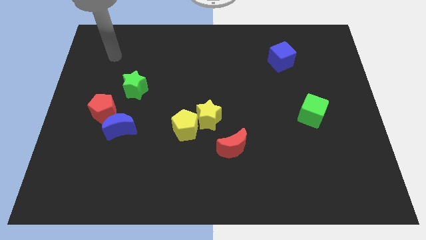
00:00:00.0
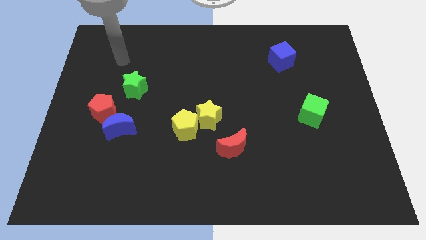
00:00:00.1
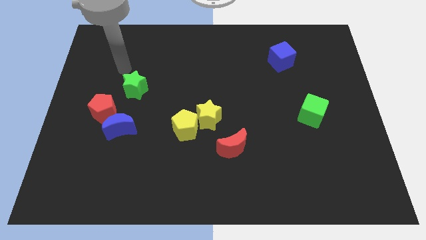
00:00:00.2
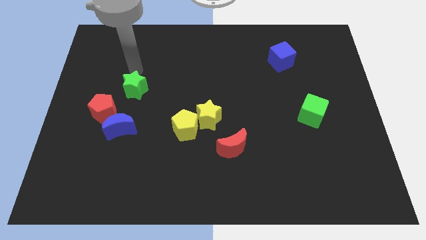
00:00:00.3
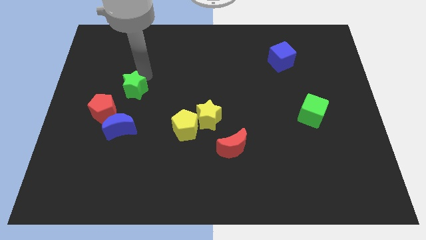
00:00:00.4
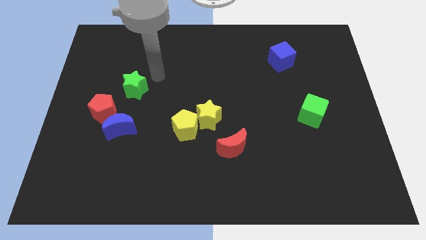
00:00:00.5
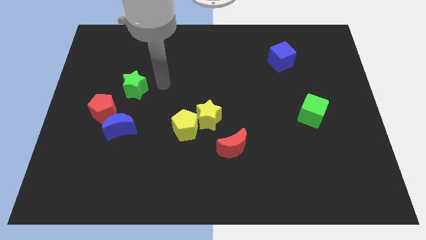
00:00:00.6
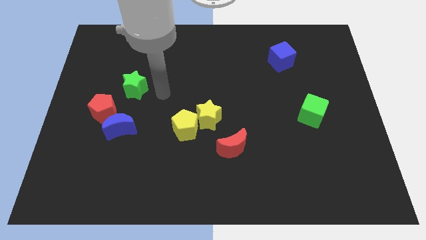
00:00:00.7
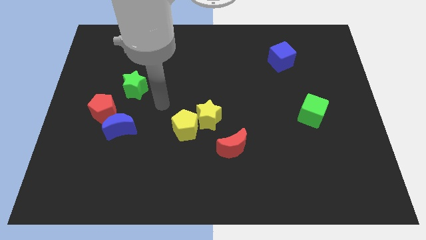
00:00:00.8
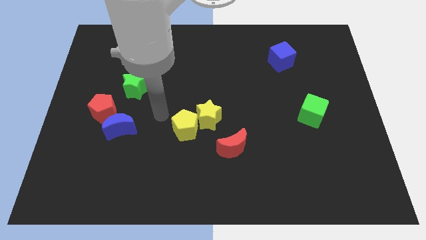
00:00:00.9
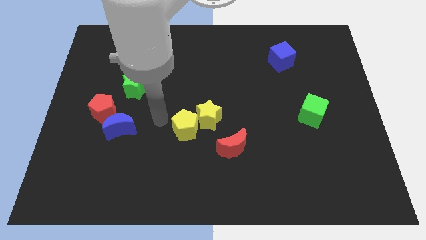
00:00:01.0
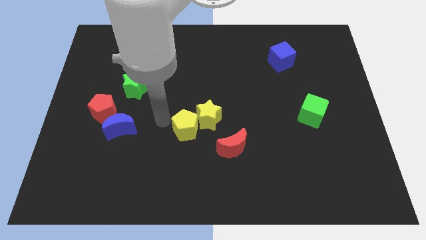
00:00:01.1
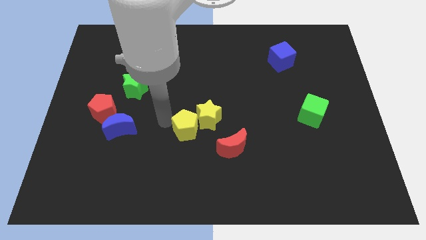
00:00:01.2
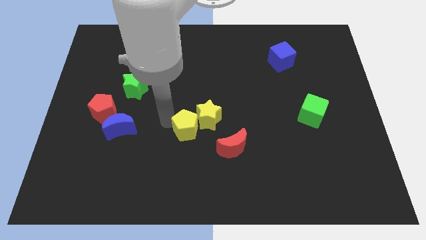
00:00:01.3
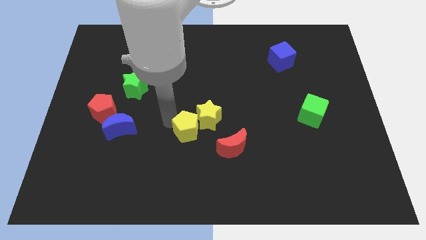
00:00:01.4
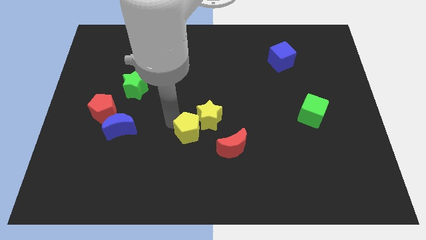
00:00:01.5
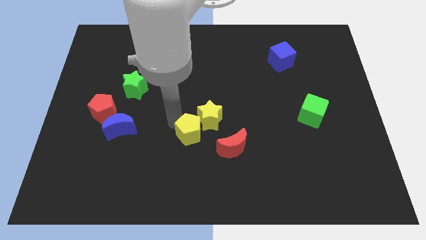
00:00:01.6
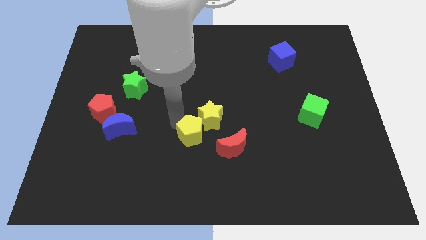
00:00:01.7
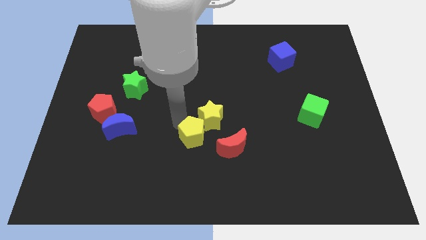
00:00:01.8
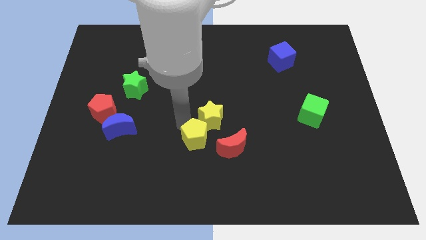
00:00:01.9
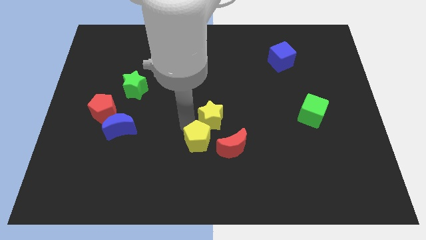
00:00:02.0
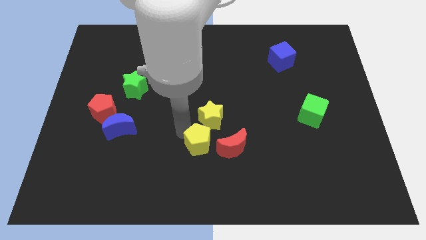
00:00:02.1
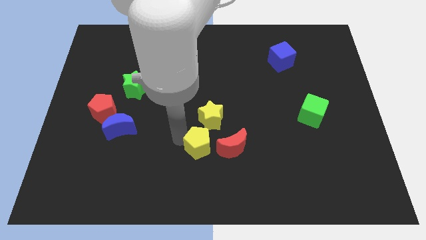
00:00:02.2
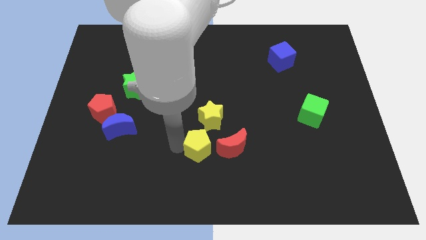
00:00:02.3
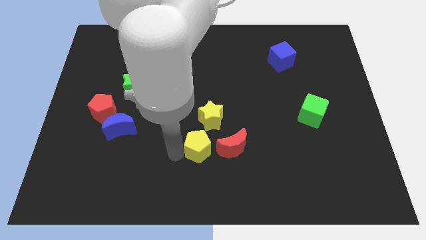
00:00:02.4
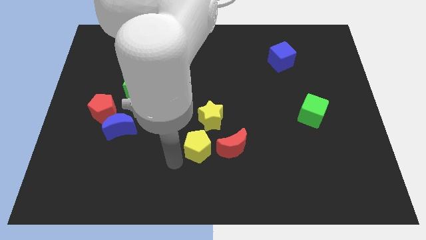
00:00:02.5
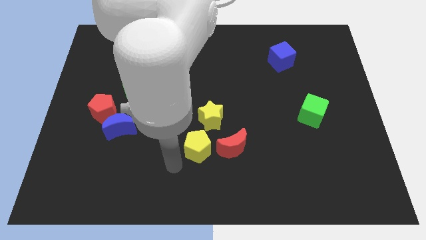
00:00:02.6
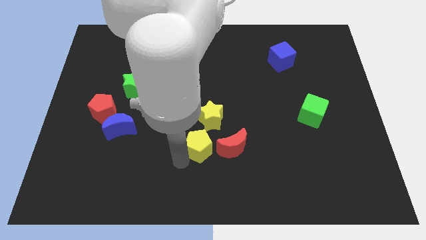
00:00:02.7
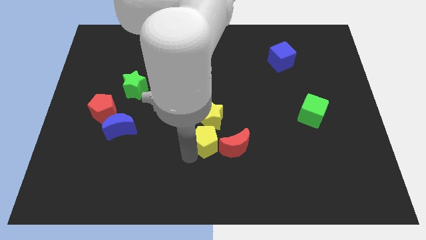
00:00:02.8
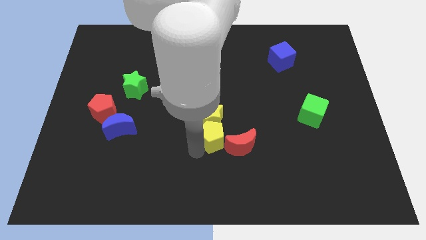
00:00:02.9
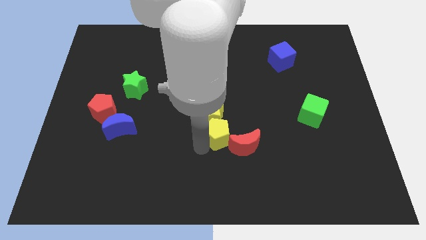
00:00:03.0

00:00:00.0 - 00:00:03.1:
push the yellow pentagon right a bit

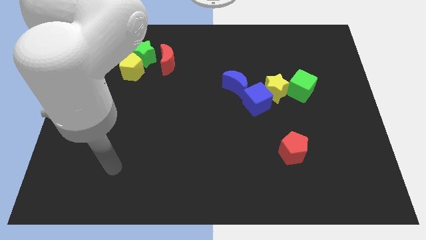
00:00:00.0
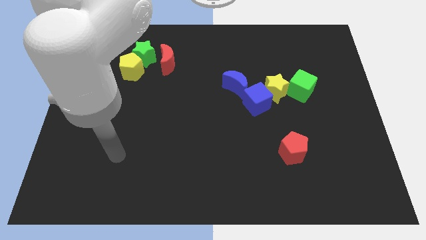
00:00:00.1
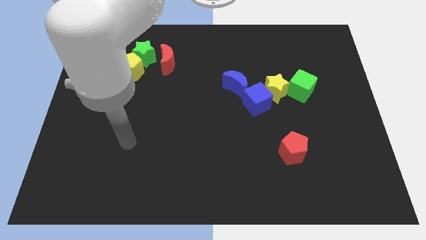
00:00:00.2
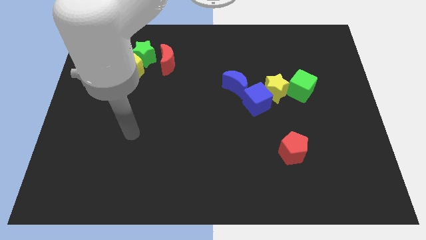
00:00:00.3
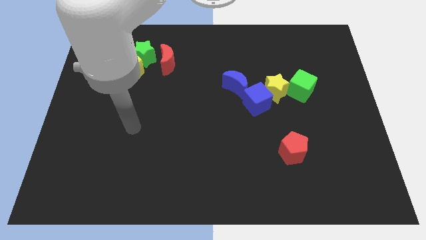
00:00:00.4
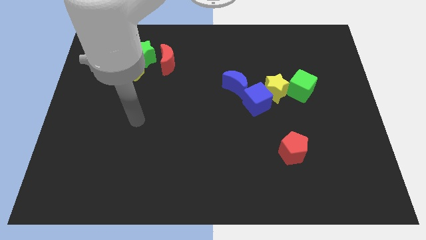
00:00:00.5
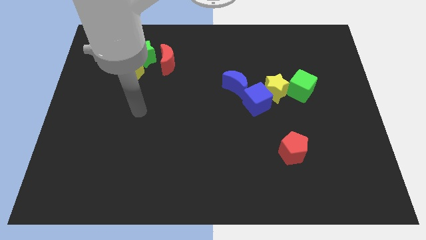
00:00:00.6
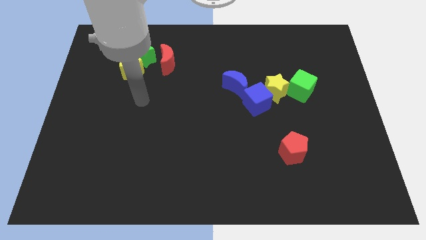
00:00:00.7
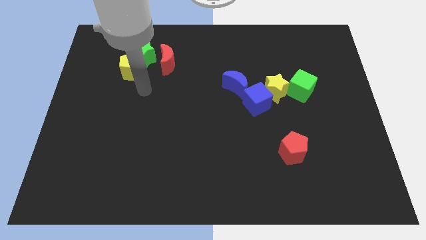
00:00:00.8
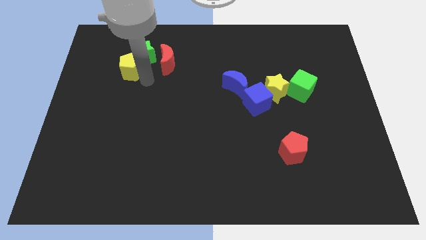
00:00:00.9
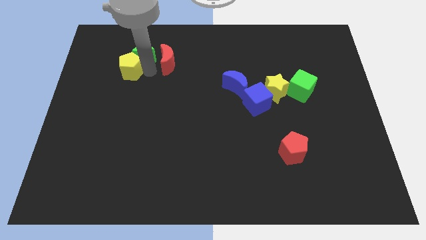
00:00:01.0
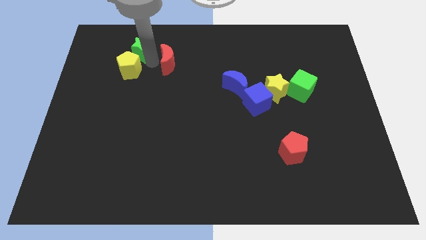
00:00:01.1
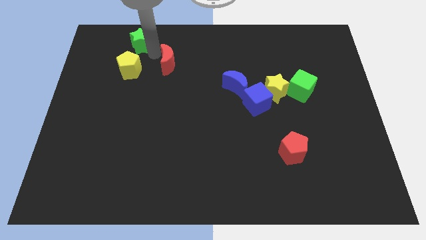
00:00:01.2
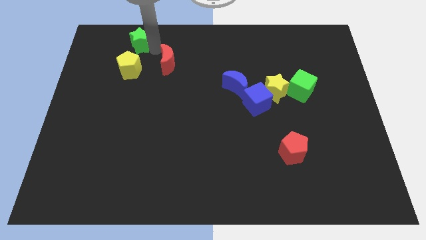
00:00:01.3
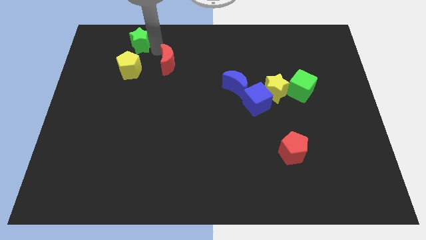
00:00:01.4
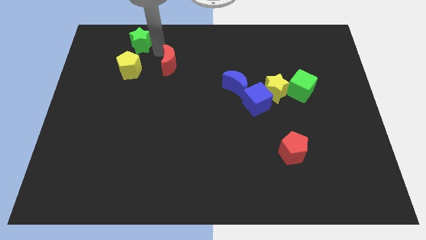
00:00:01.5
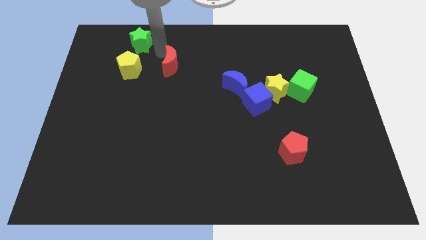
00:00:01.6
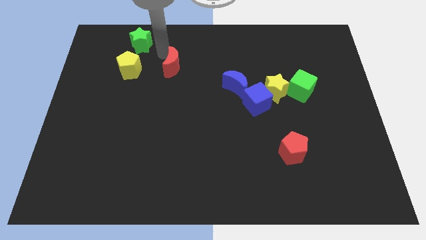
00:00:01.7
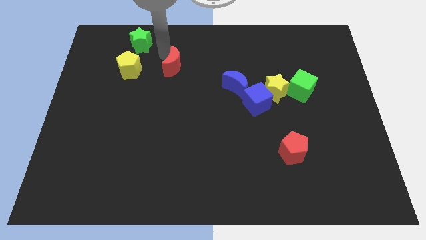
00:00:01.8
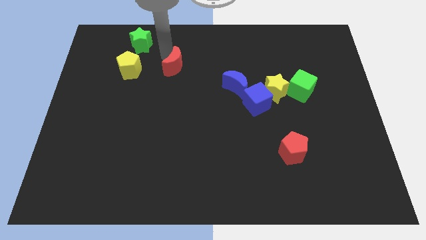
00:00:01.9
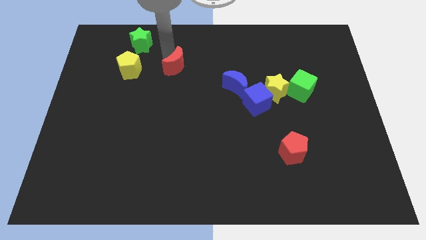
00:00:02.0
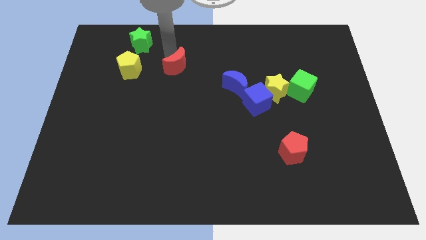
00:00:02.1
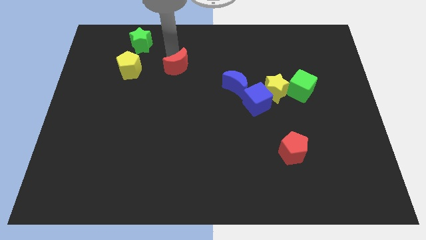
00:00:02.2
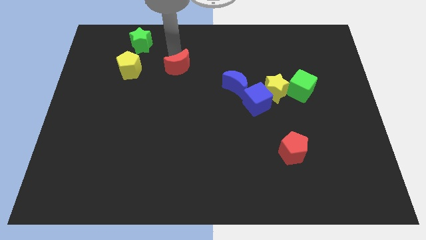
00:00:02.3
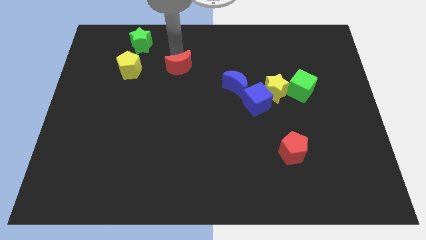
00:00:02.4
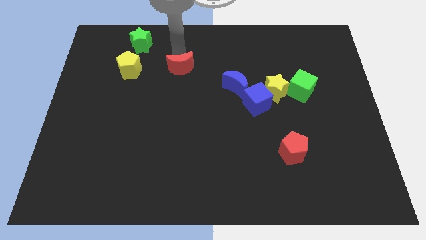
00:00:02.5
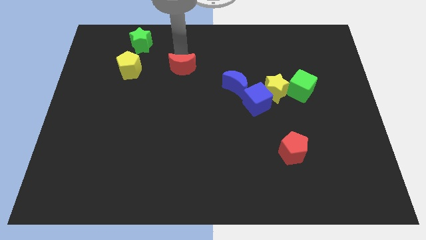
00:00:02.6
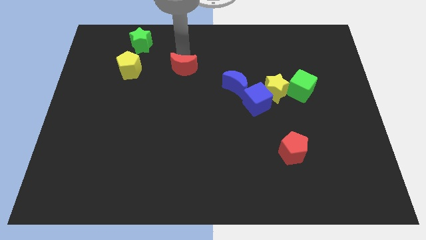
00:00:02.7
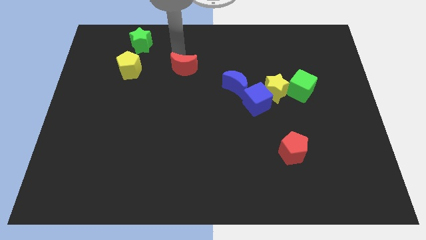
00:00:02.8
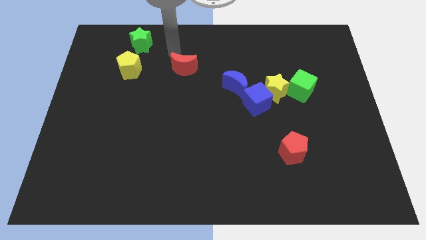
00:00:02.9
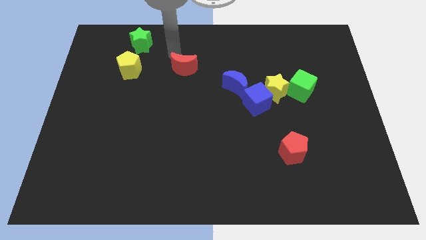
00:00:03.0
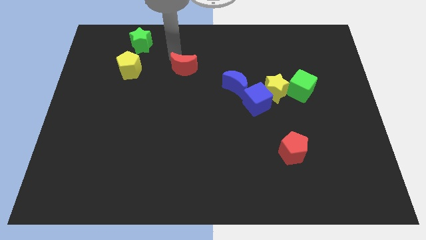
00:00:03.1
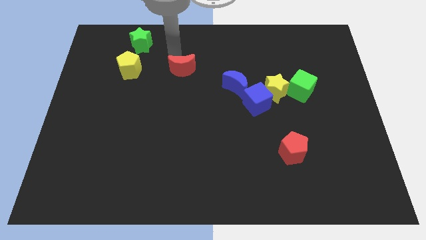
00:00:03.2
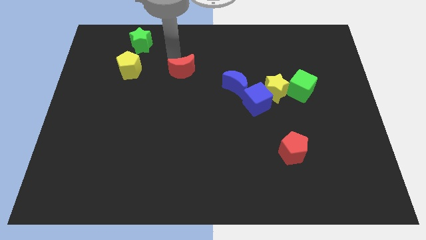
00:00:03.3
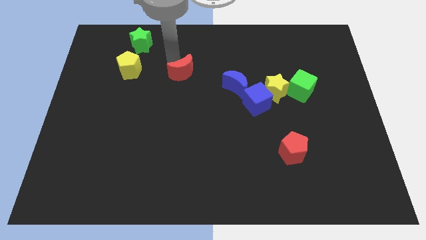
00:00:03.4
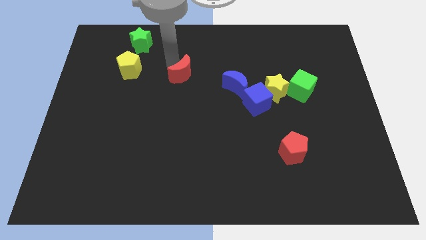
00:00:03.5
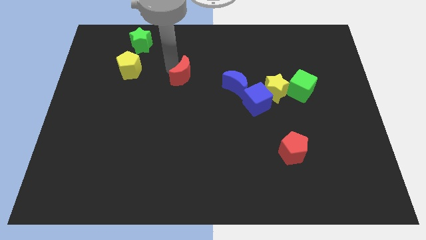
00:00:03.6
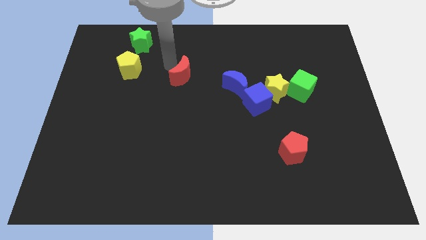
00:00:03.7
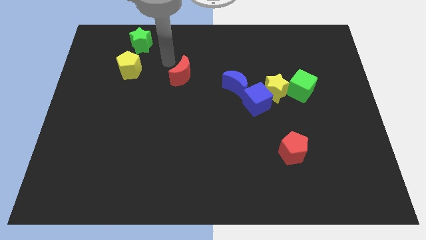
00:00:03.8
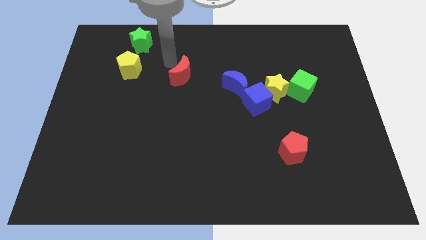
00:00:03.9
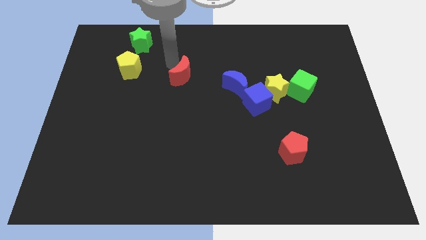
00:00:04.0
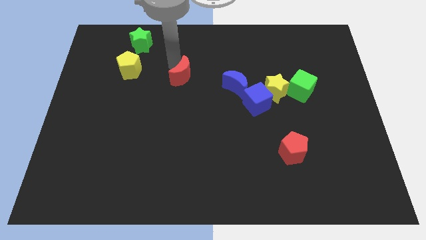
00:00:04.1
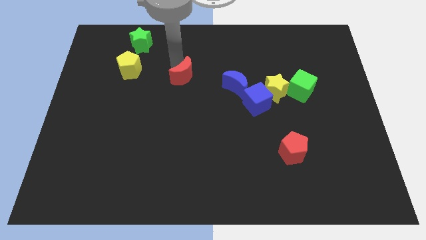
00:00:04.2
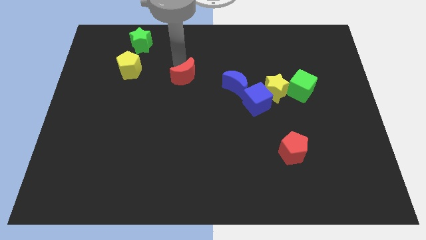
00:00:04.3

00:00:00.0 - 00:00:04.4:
slightly slide the red moon downwards and then to the right

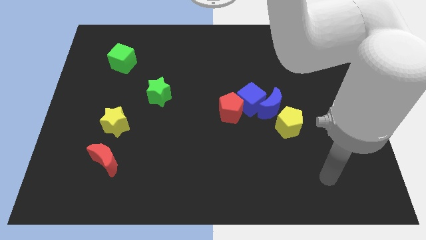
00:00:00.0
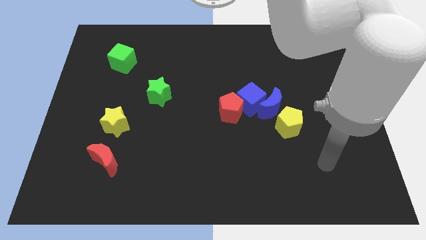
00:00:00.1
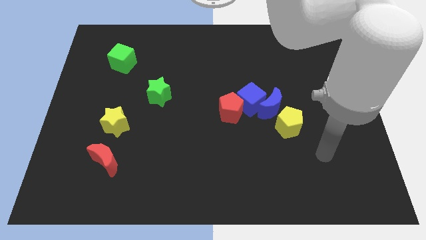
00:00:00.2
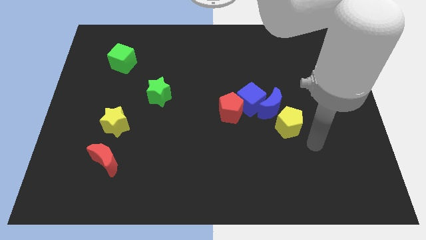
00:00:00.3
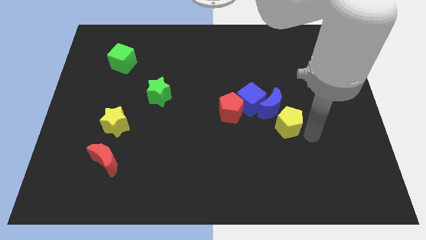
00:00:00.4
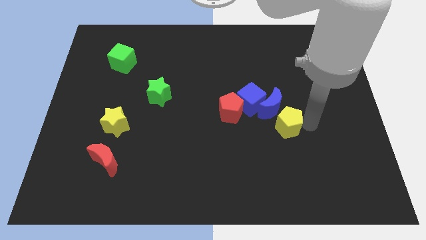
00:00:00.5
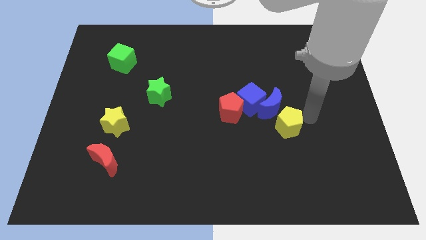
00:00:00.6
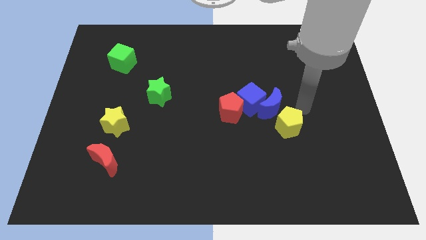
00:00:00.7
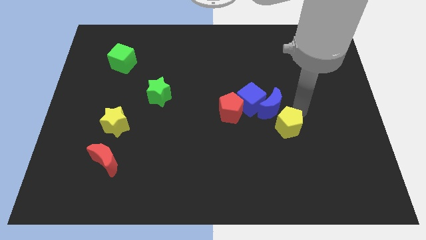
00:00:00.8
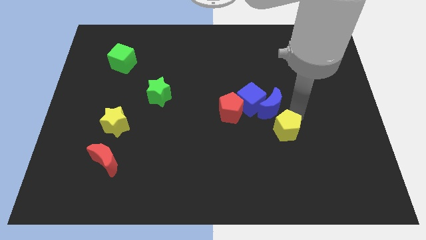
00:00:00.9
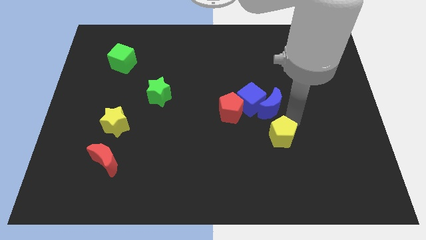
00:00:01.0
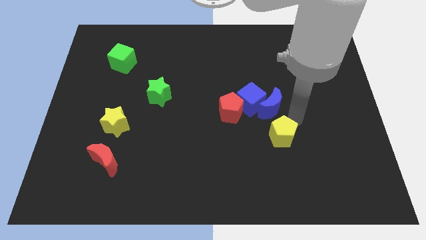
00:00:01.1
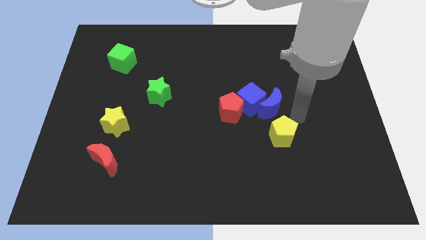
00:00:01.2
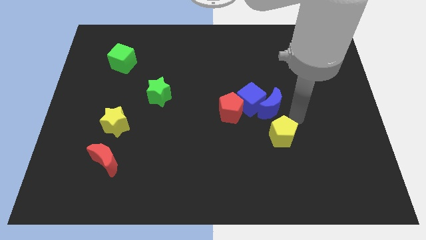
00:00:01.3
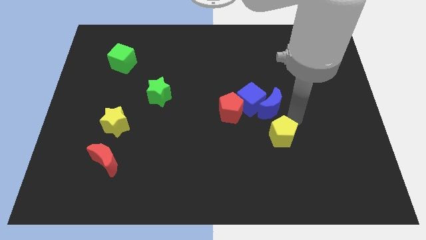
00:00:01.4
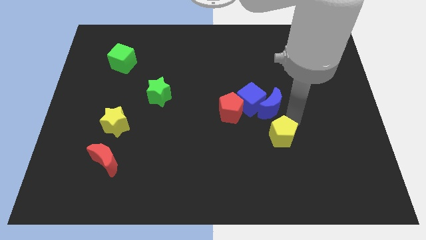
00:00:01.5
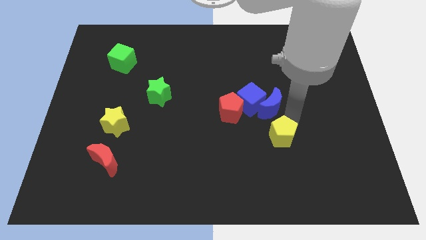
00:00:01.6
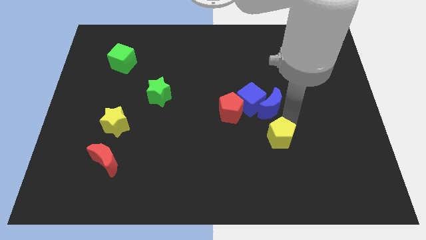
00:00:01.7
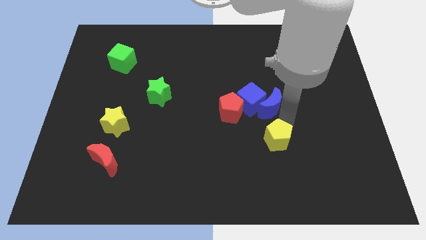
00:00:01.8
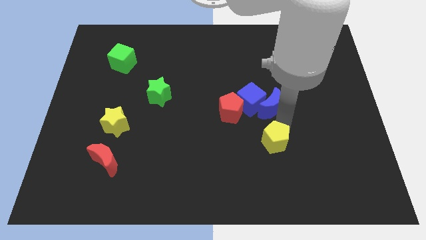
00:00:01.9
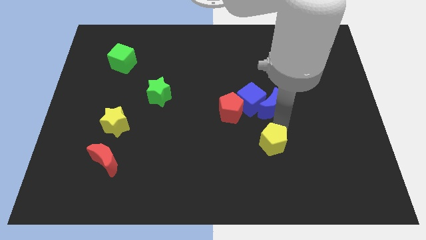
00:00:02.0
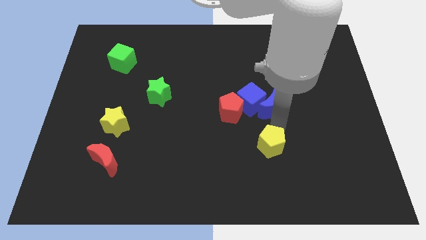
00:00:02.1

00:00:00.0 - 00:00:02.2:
push the yellow pentagon a bit downwards and to the left diagonally
